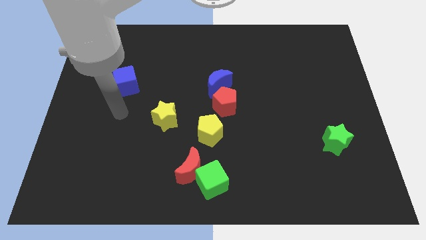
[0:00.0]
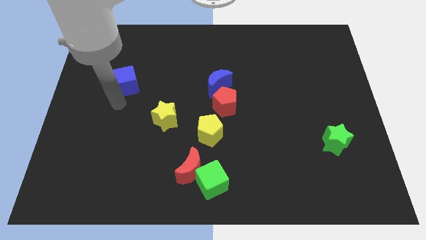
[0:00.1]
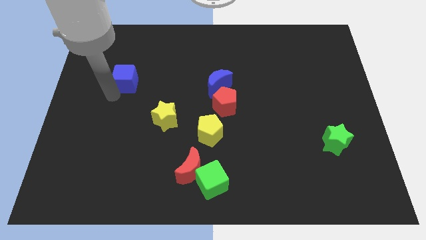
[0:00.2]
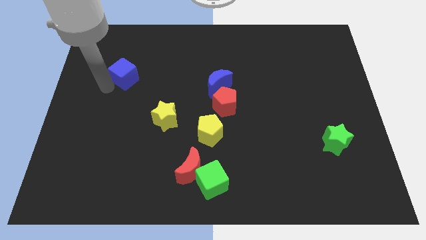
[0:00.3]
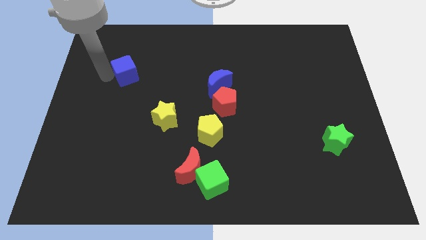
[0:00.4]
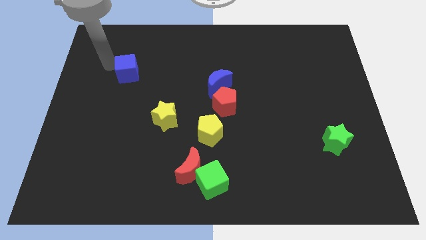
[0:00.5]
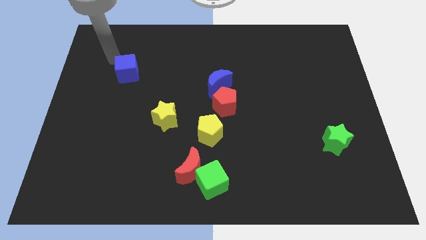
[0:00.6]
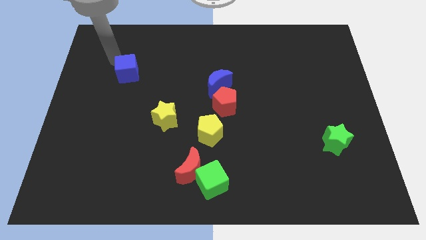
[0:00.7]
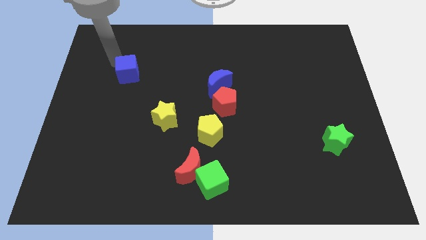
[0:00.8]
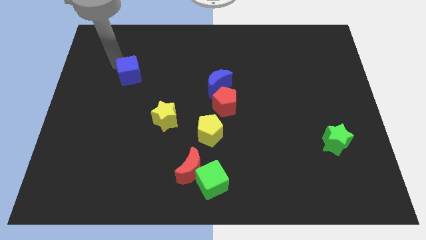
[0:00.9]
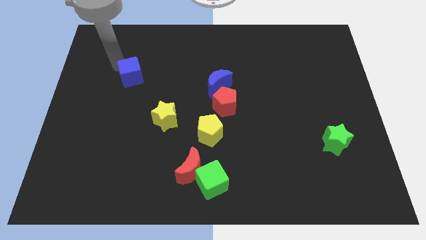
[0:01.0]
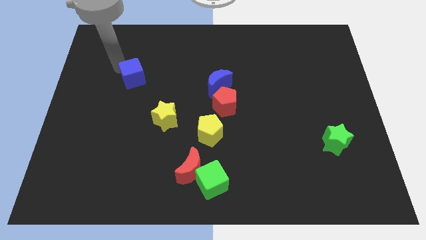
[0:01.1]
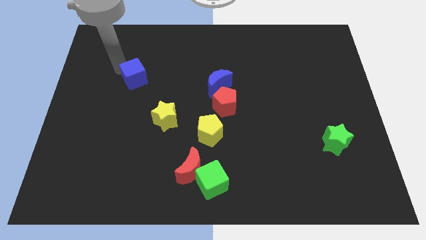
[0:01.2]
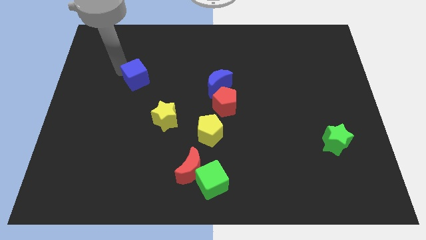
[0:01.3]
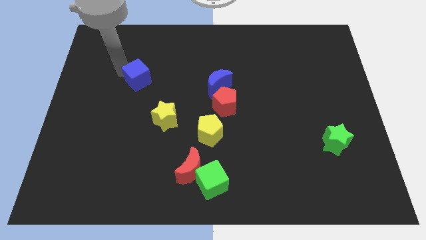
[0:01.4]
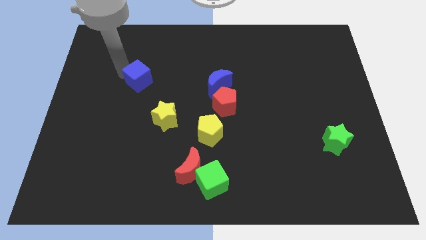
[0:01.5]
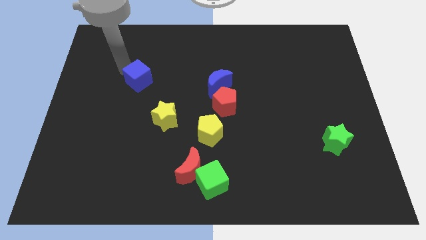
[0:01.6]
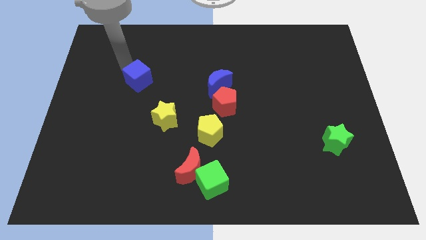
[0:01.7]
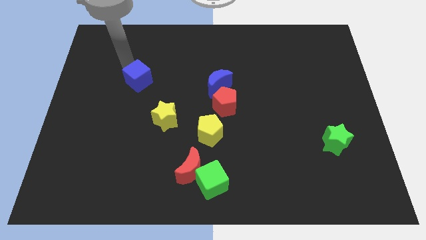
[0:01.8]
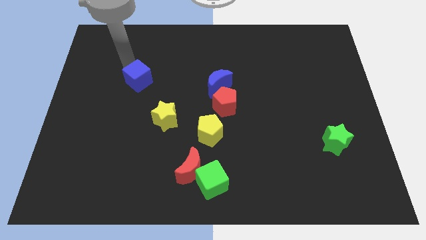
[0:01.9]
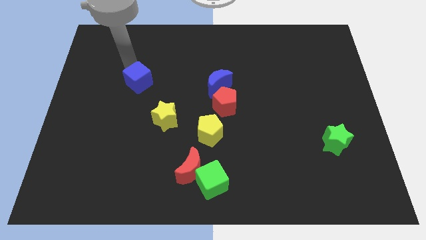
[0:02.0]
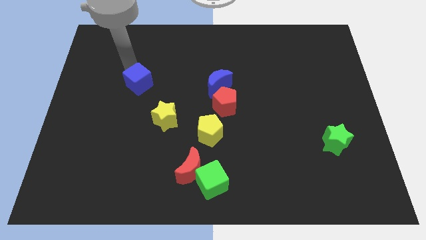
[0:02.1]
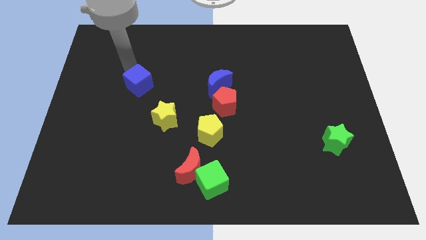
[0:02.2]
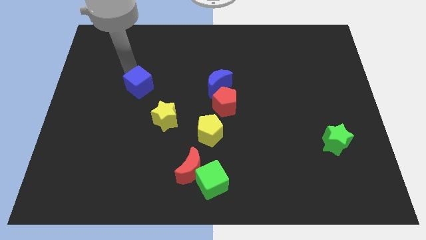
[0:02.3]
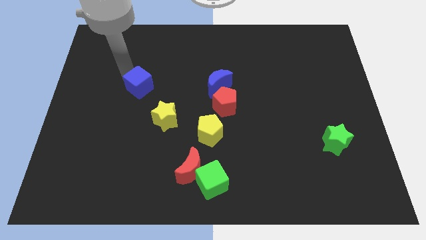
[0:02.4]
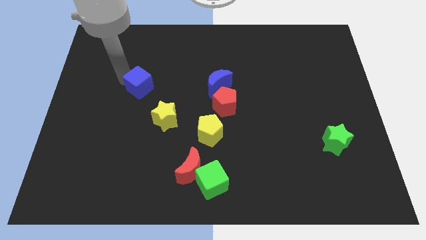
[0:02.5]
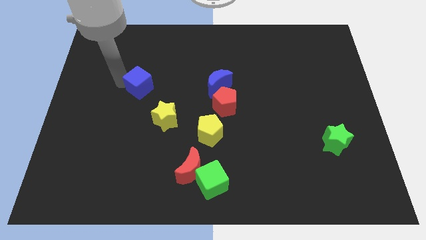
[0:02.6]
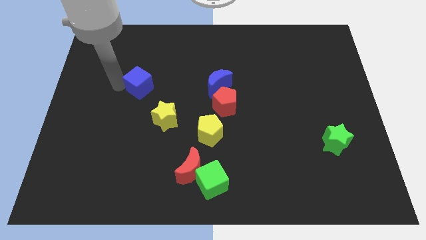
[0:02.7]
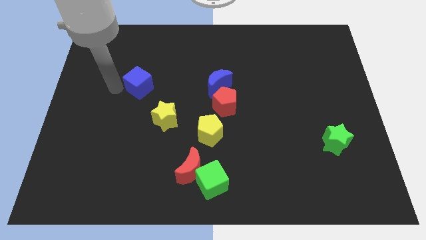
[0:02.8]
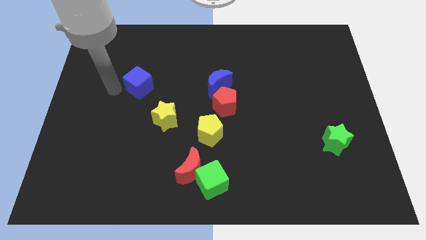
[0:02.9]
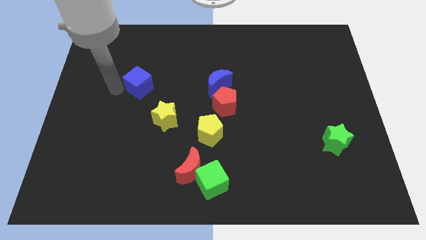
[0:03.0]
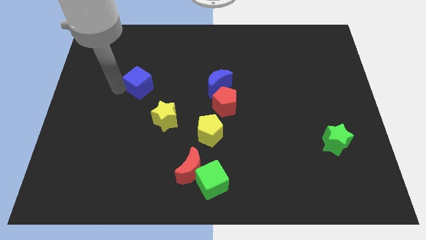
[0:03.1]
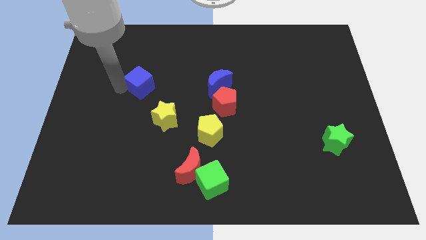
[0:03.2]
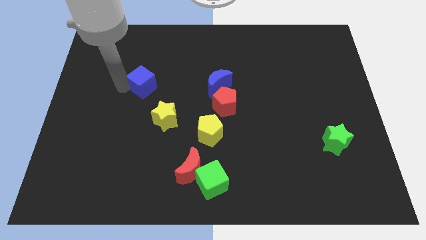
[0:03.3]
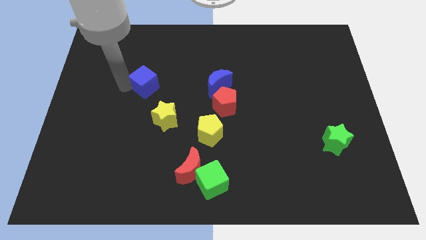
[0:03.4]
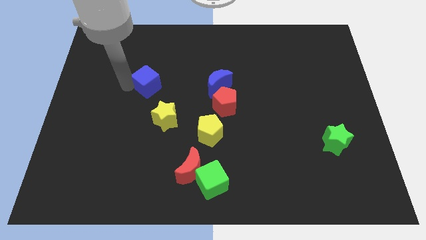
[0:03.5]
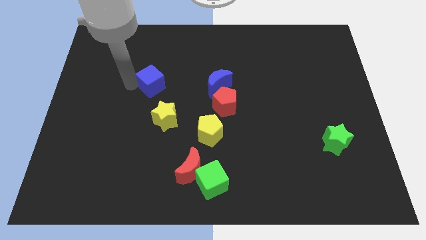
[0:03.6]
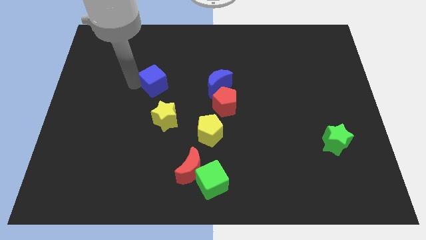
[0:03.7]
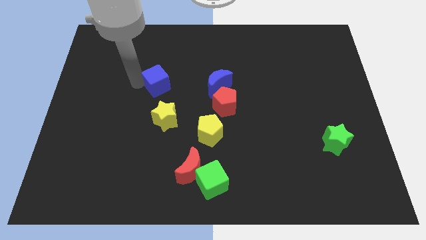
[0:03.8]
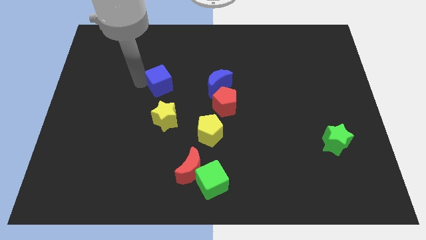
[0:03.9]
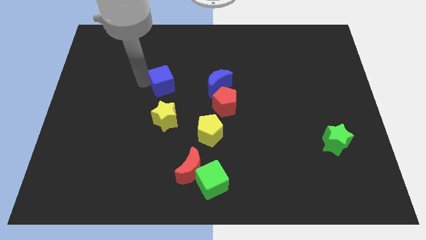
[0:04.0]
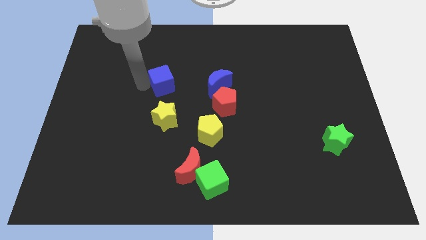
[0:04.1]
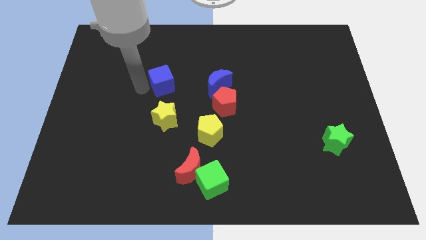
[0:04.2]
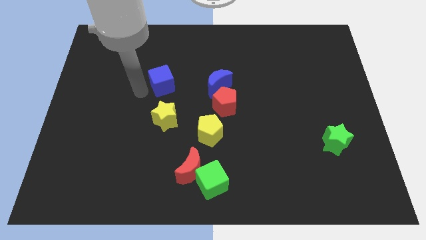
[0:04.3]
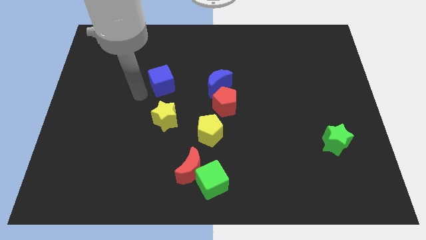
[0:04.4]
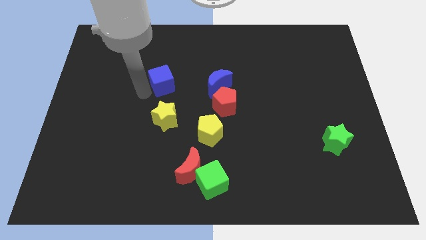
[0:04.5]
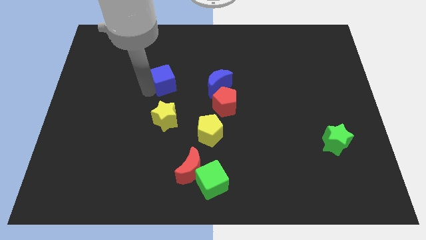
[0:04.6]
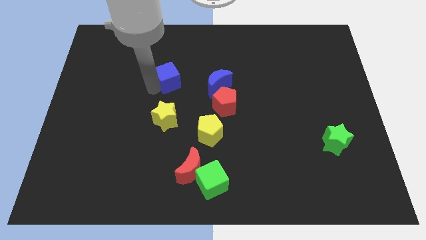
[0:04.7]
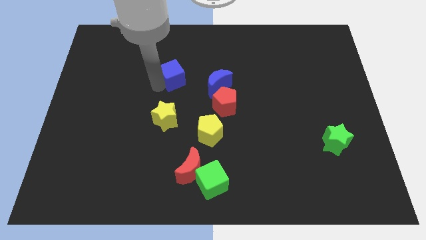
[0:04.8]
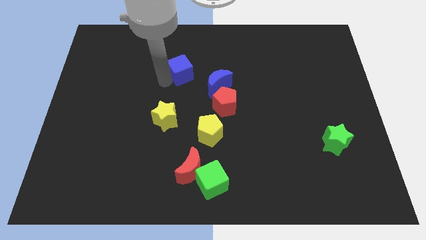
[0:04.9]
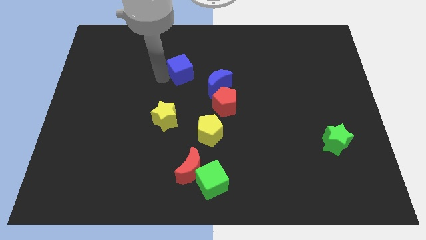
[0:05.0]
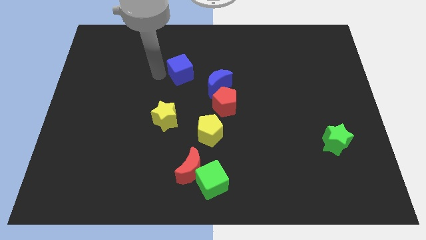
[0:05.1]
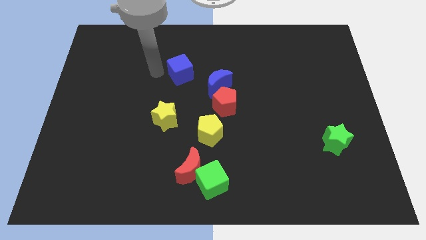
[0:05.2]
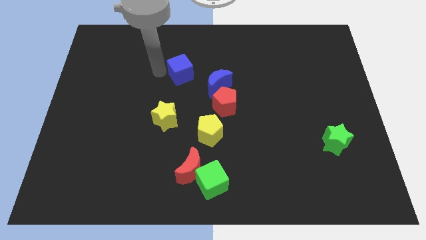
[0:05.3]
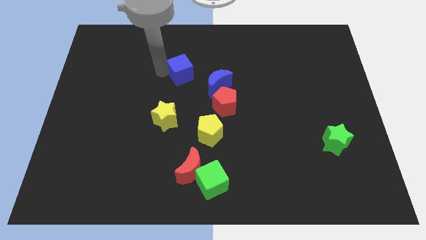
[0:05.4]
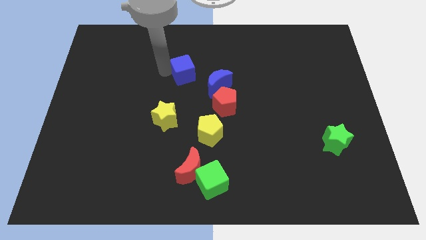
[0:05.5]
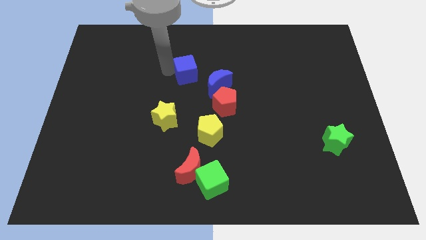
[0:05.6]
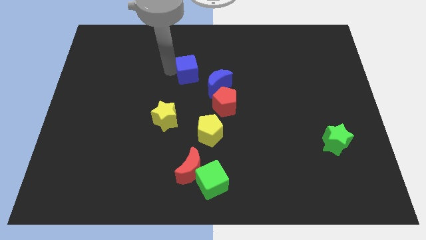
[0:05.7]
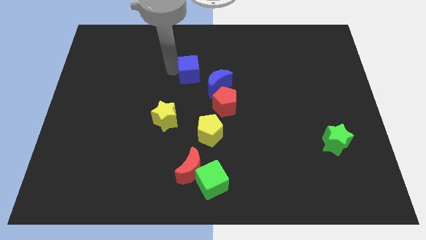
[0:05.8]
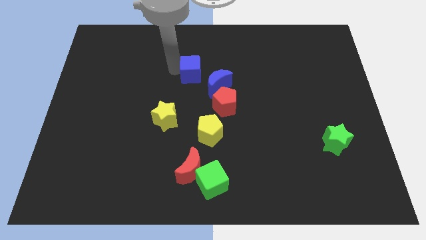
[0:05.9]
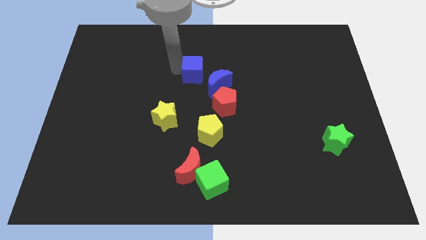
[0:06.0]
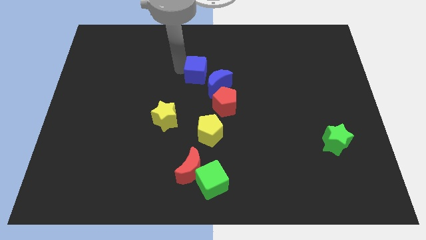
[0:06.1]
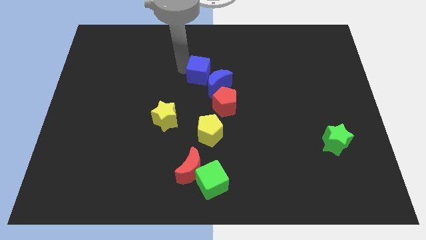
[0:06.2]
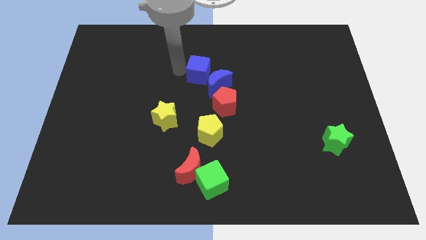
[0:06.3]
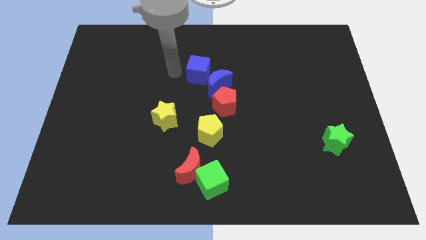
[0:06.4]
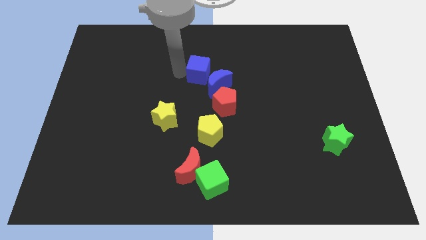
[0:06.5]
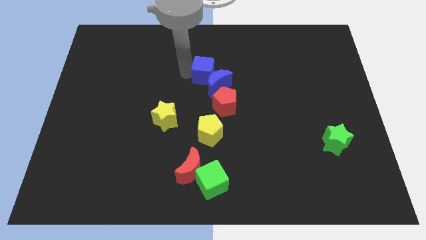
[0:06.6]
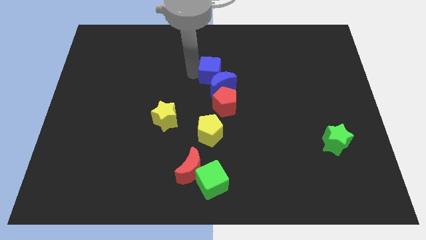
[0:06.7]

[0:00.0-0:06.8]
move the blue cube right

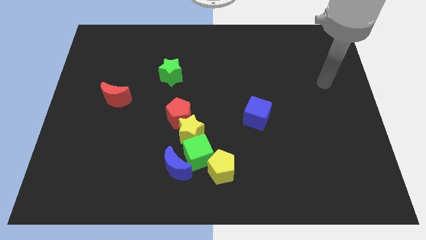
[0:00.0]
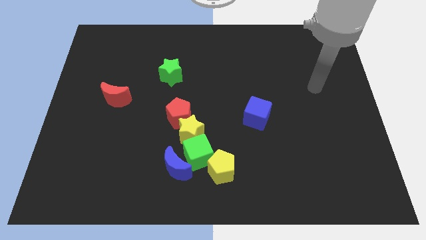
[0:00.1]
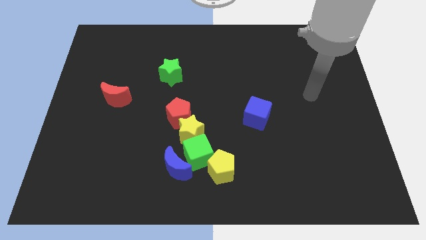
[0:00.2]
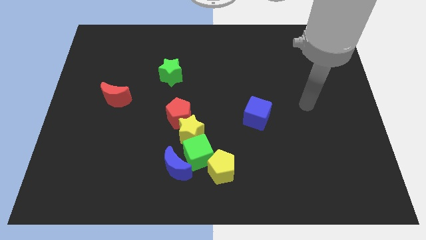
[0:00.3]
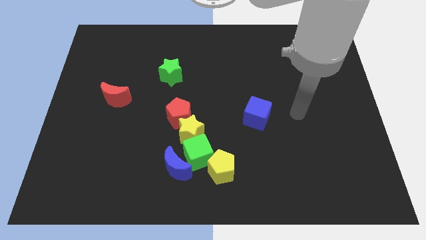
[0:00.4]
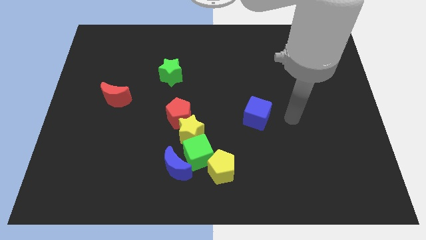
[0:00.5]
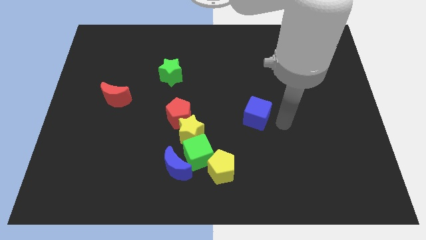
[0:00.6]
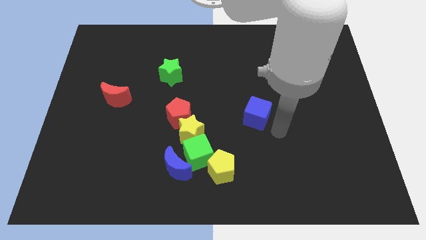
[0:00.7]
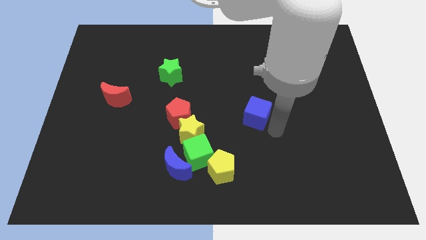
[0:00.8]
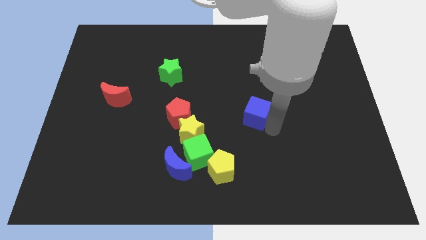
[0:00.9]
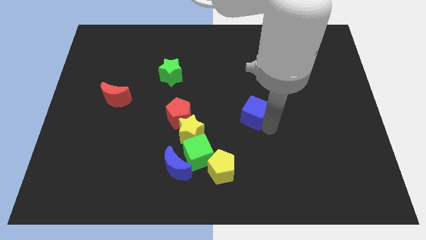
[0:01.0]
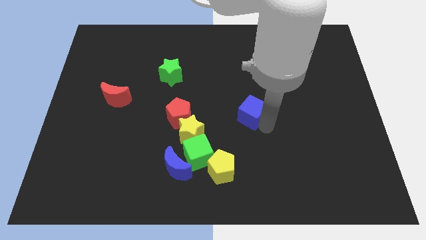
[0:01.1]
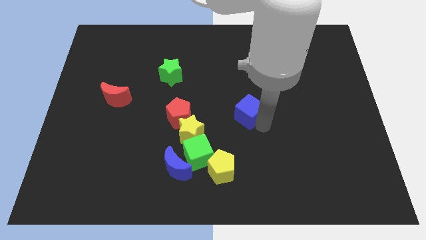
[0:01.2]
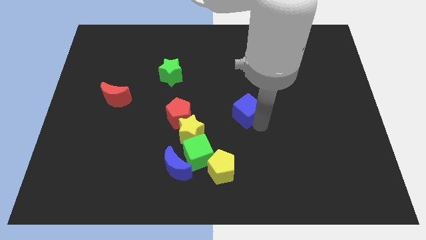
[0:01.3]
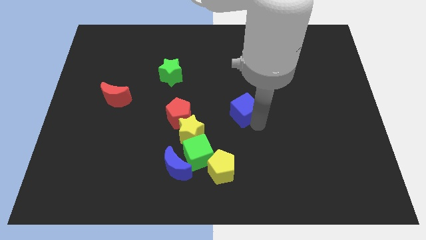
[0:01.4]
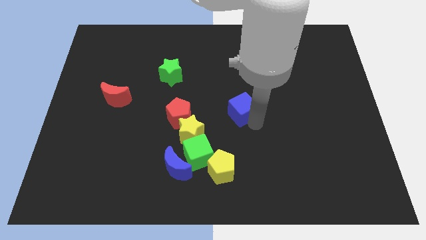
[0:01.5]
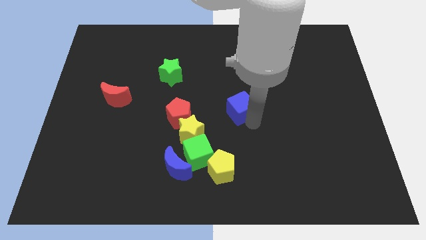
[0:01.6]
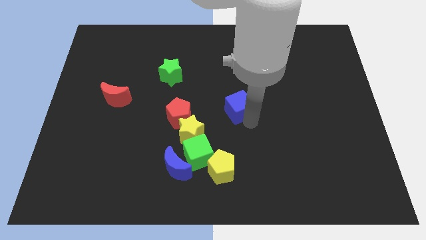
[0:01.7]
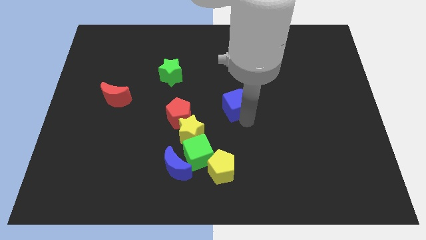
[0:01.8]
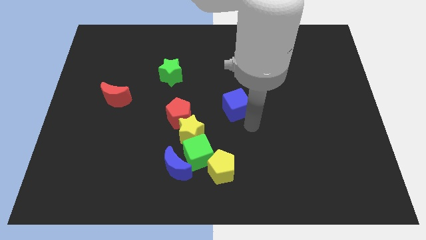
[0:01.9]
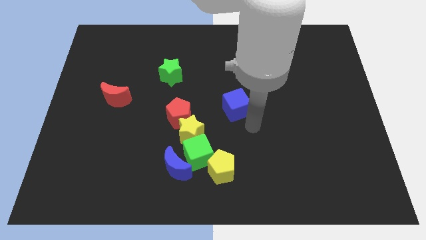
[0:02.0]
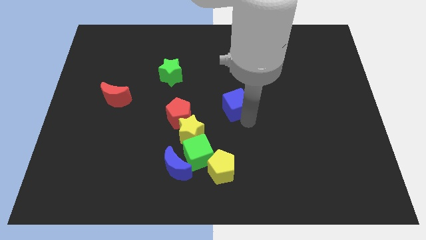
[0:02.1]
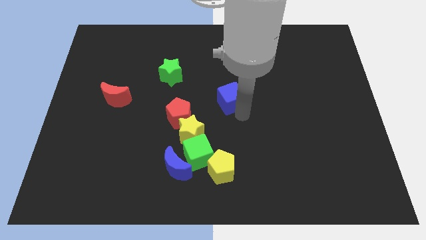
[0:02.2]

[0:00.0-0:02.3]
slightly push the blue cube up and left diagonally
